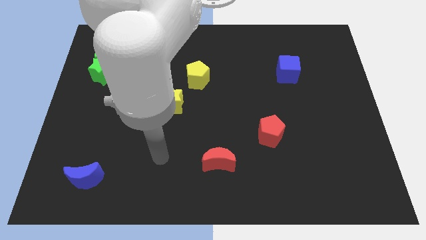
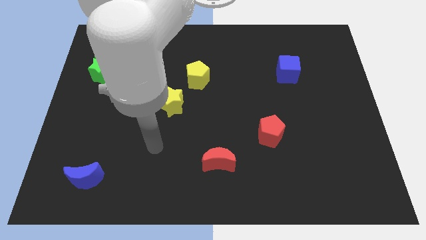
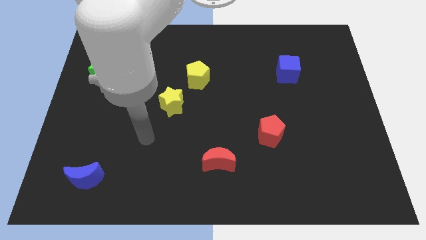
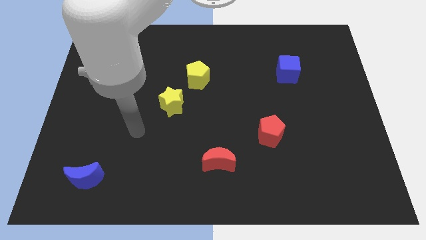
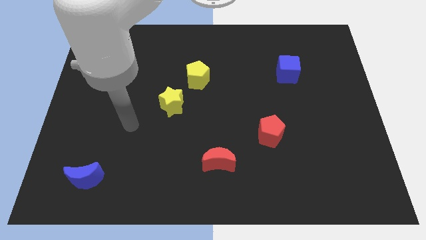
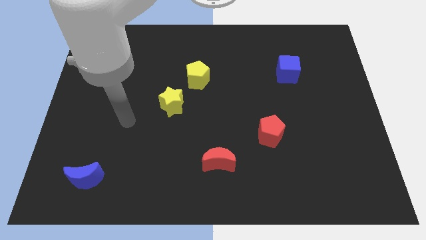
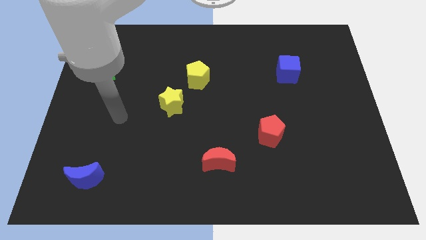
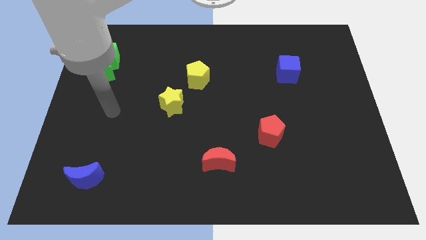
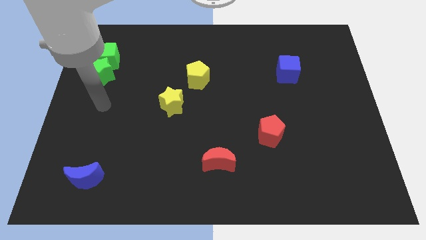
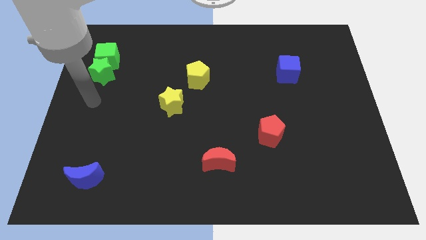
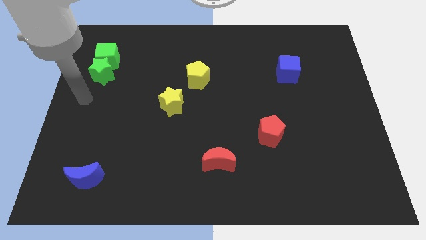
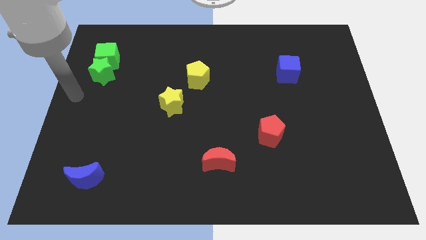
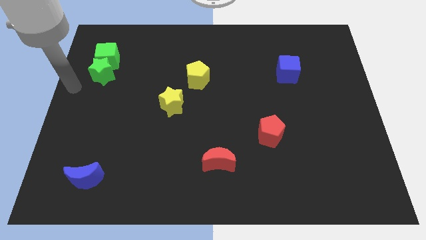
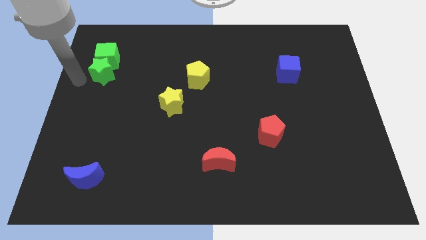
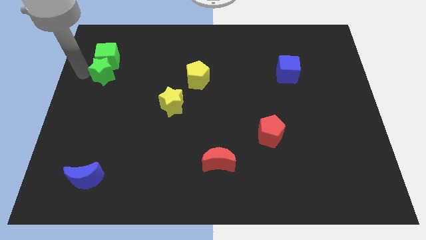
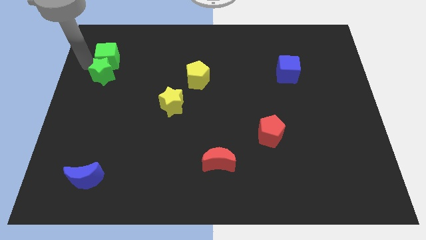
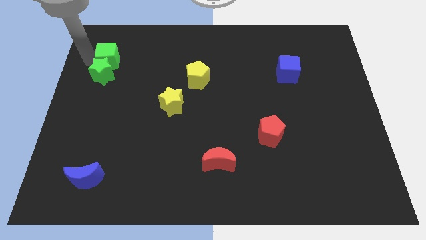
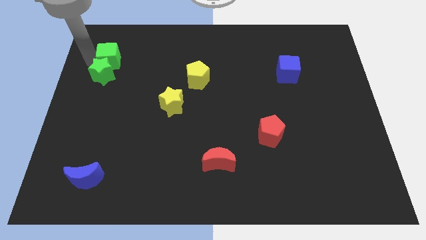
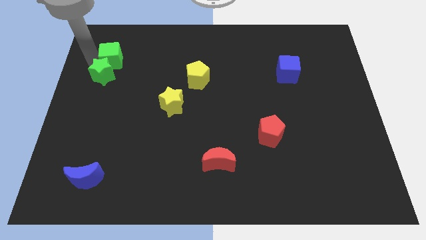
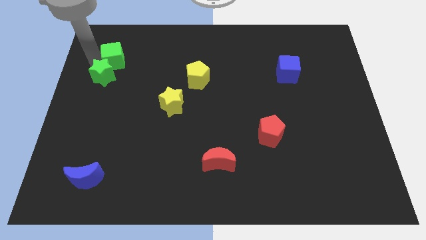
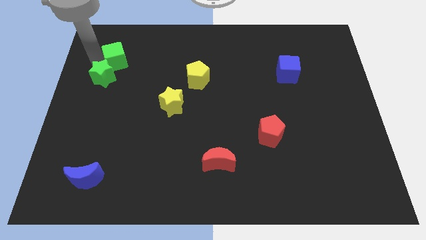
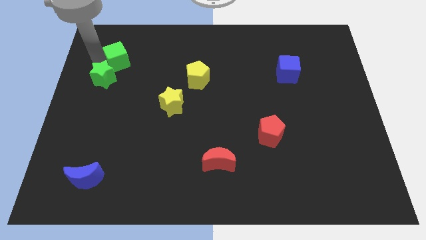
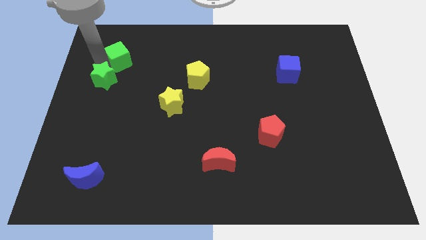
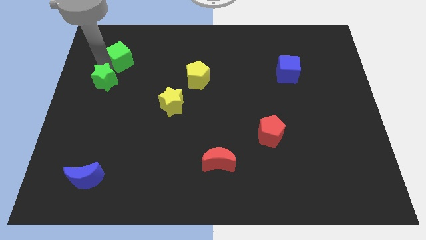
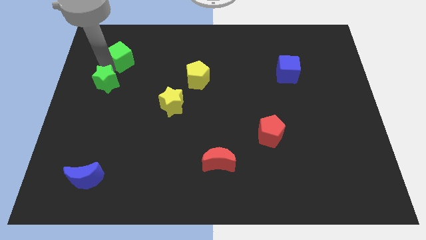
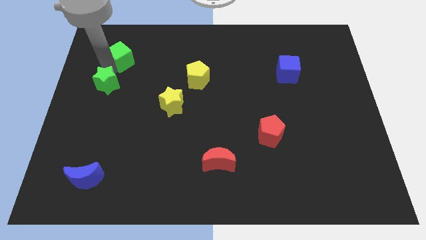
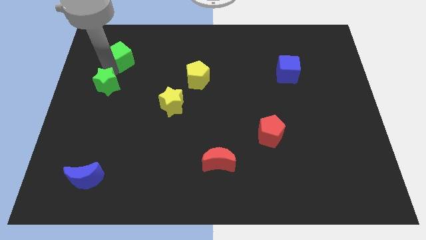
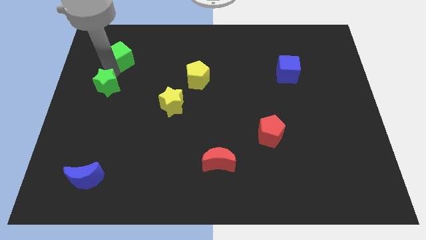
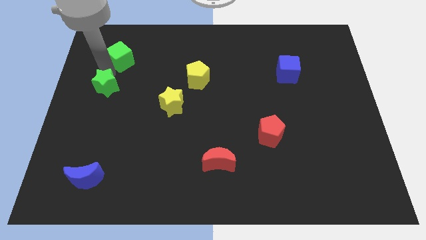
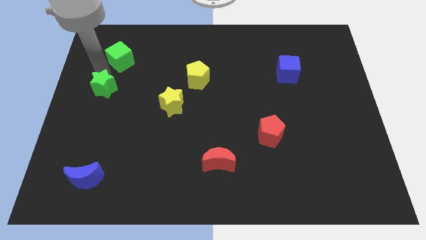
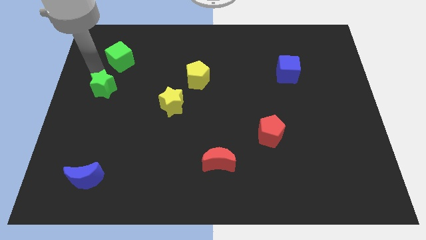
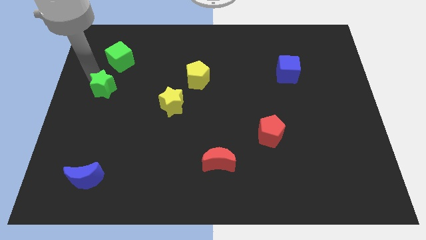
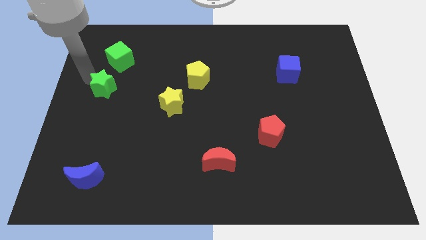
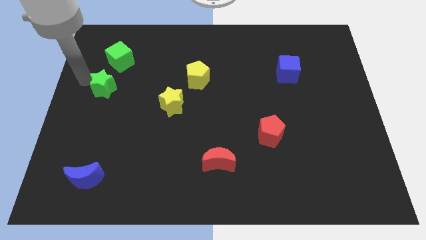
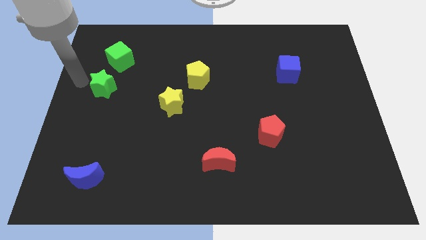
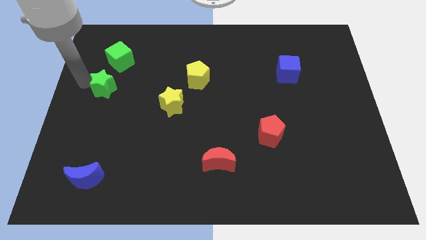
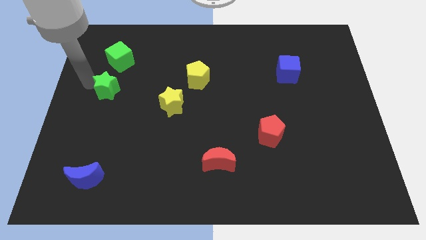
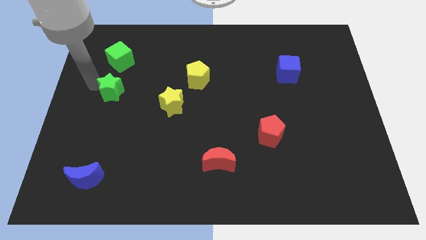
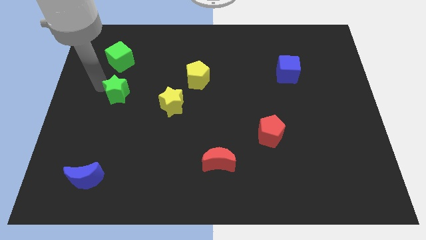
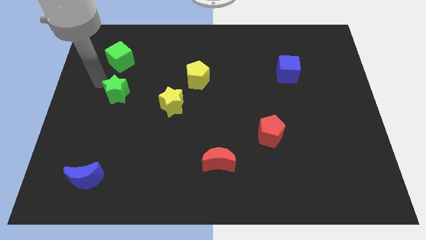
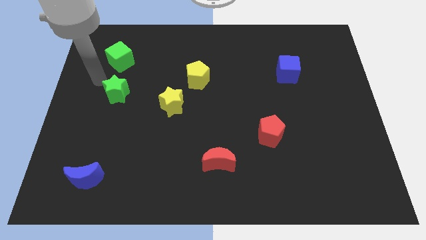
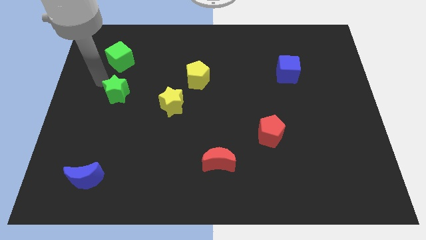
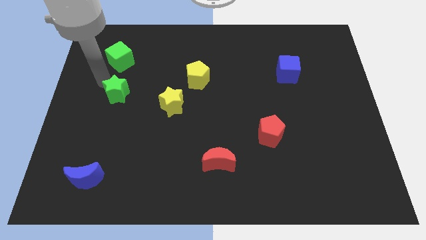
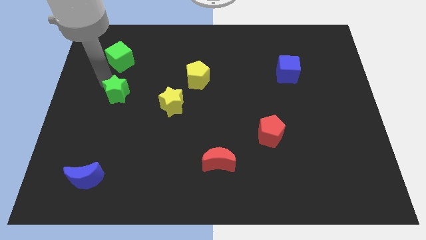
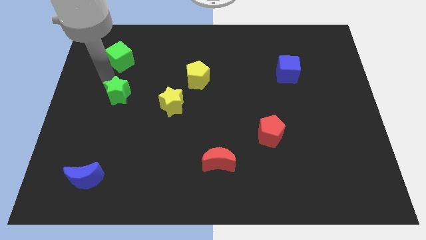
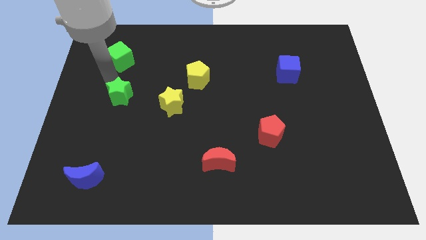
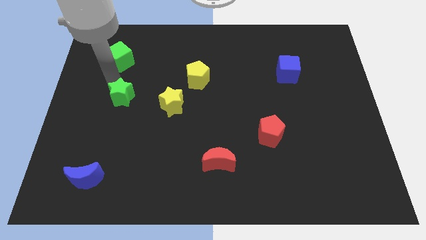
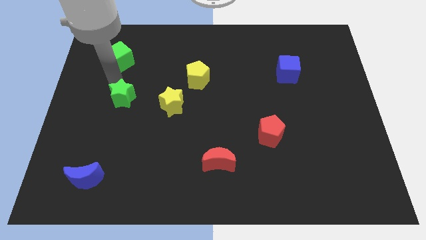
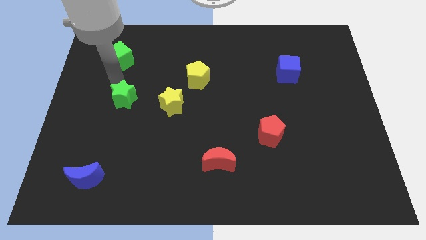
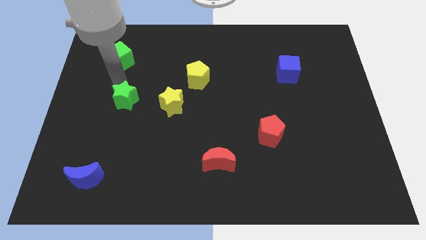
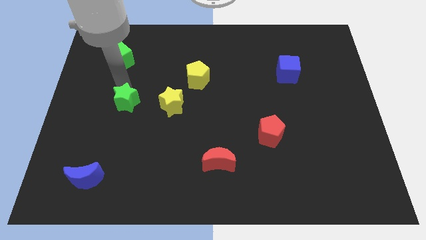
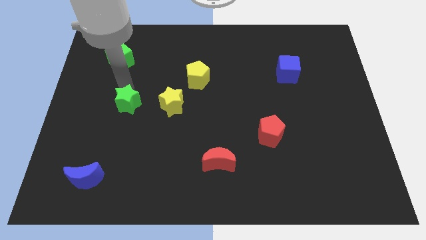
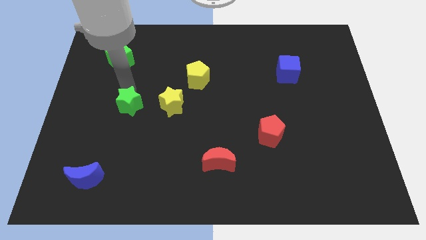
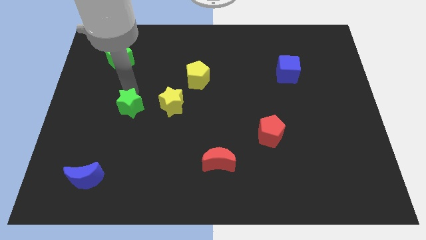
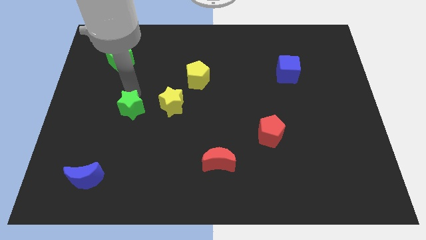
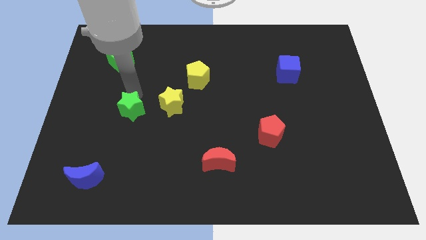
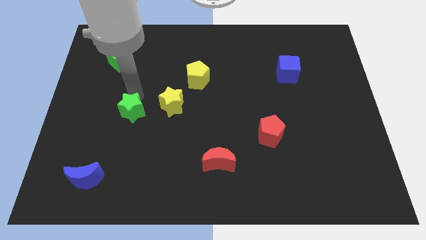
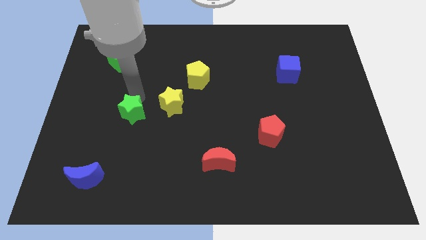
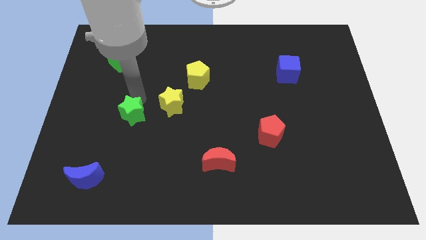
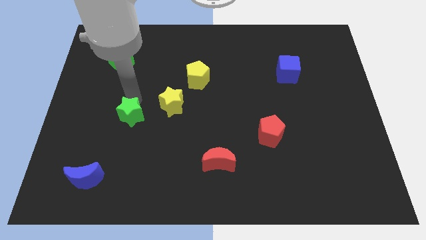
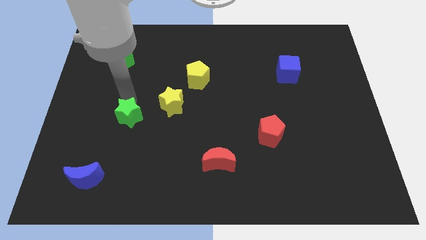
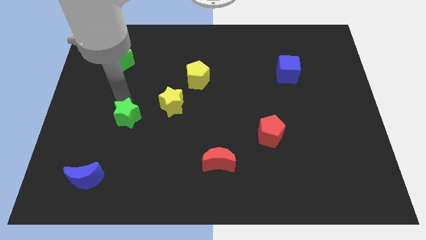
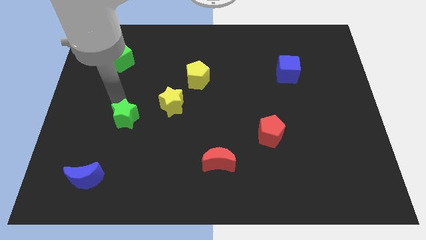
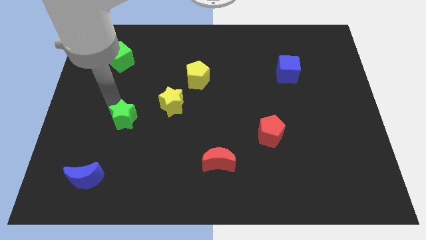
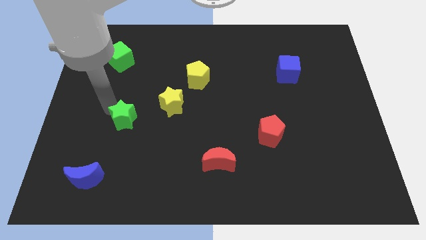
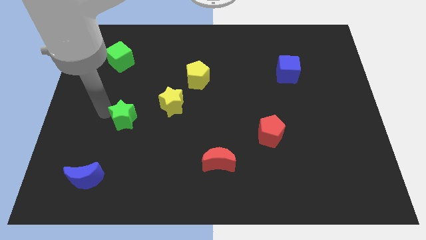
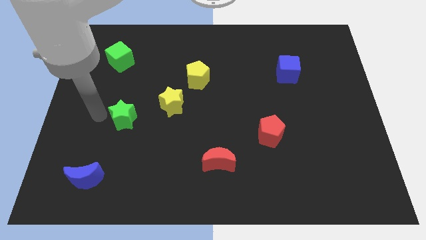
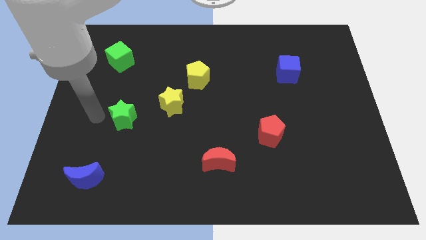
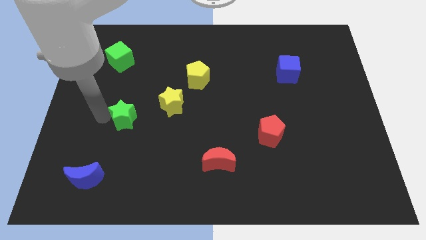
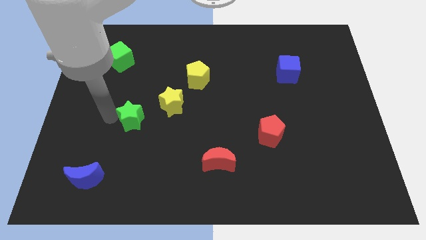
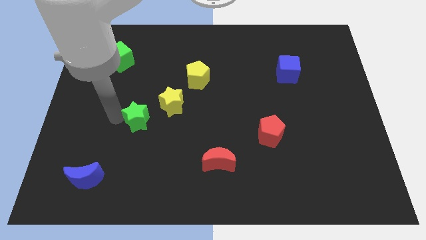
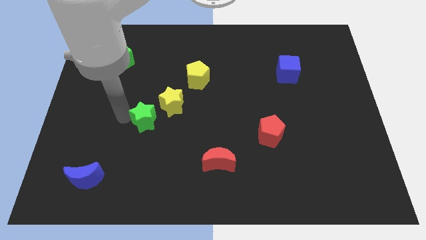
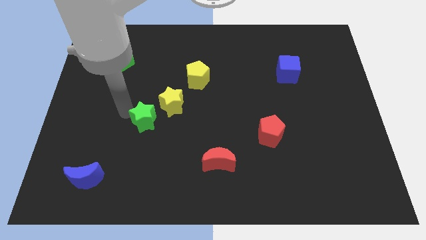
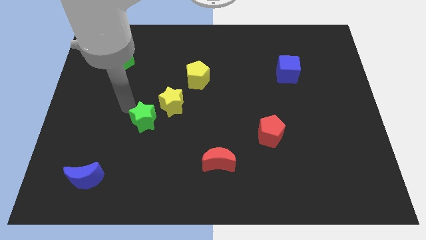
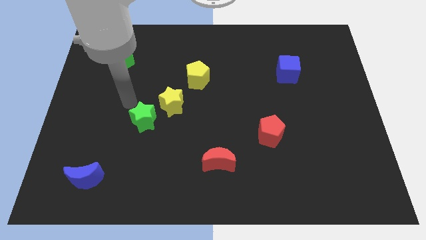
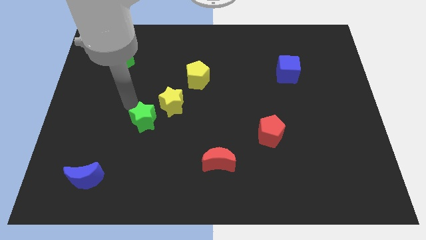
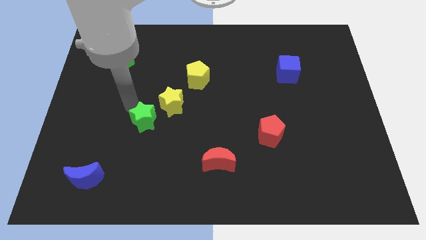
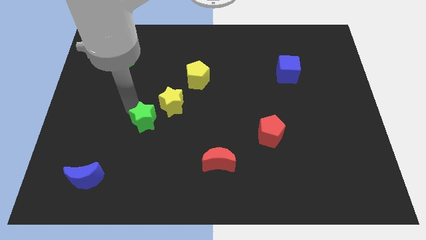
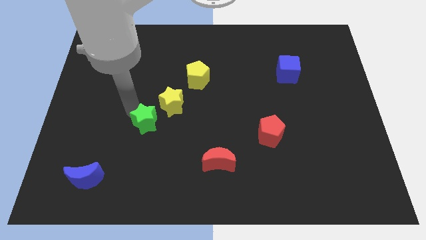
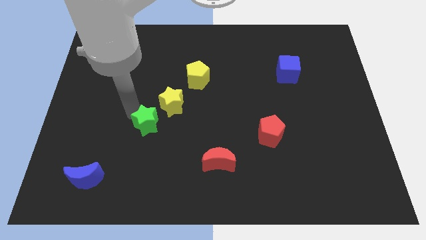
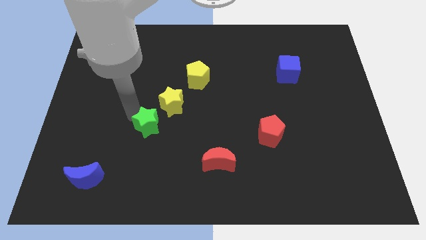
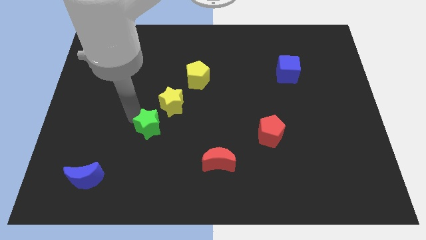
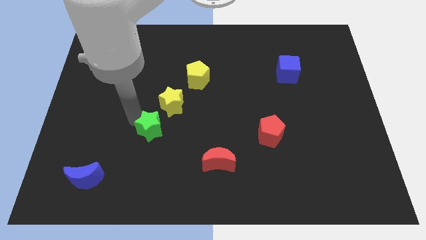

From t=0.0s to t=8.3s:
put the green star below the yellow star
